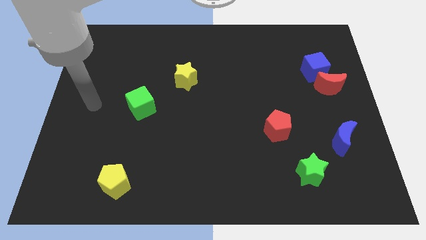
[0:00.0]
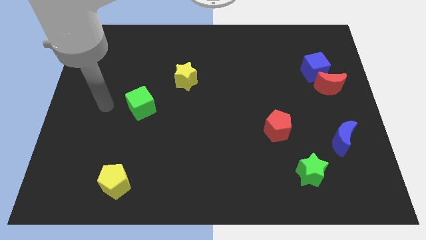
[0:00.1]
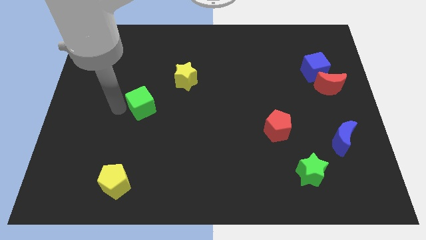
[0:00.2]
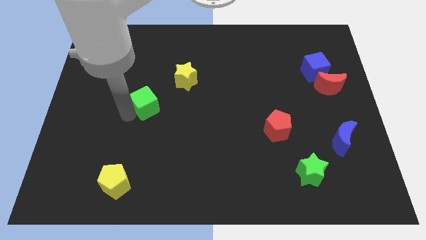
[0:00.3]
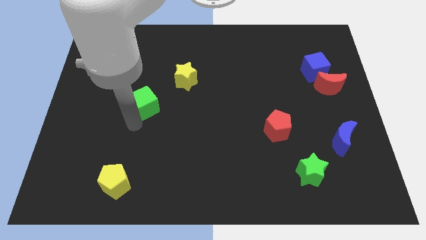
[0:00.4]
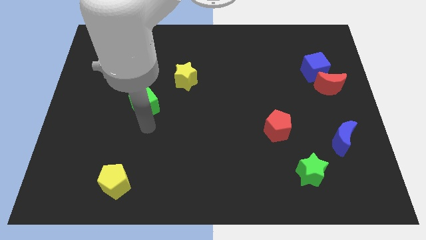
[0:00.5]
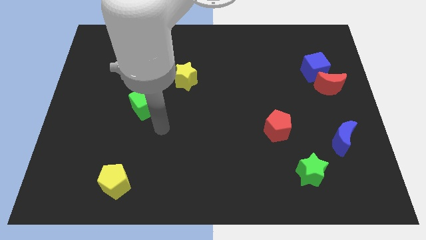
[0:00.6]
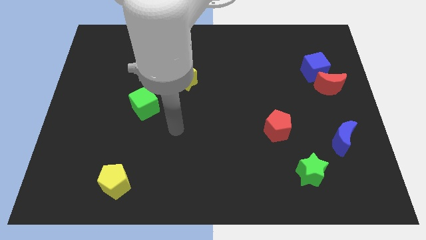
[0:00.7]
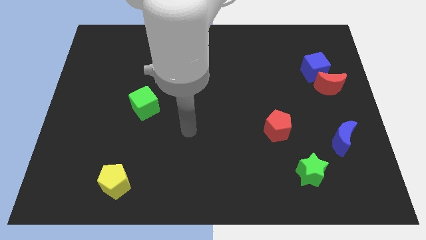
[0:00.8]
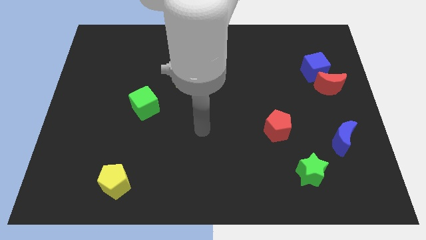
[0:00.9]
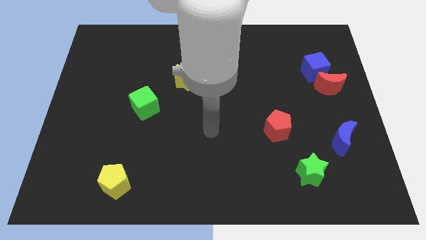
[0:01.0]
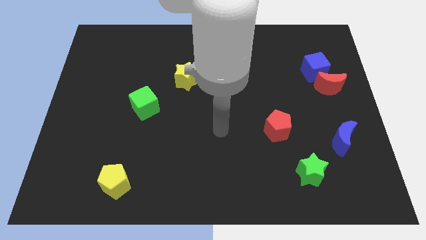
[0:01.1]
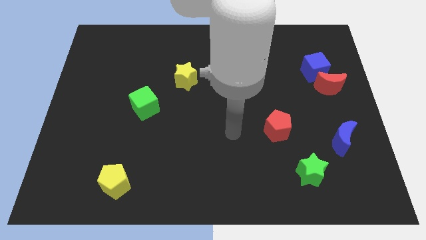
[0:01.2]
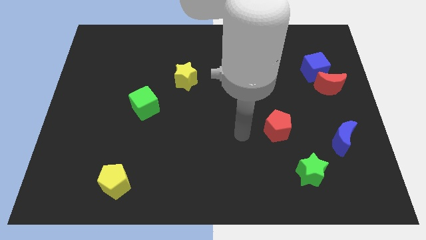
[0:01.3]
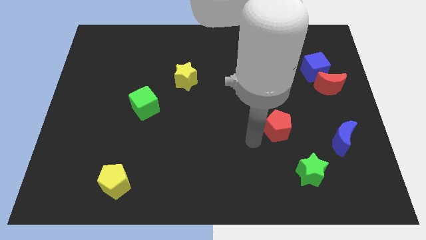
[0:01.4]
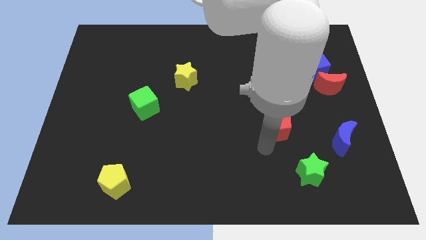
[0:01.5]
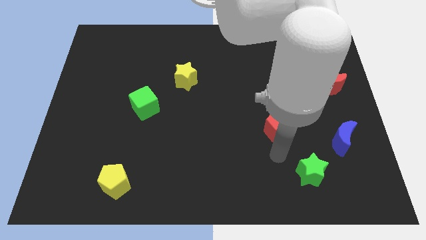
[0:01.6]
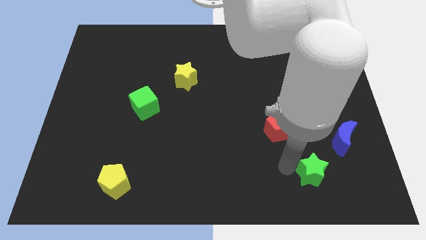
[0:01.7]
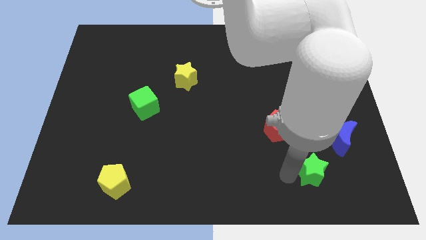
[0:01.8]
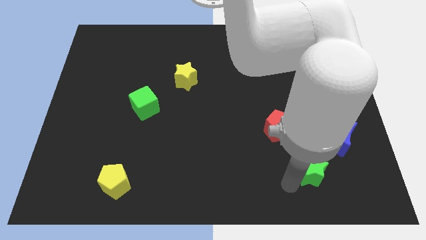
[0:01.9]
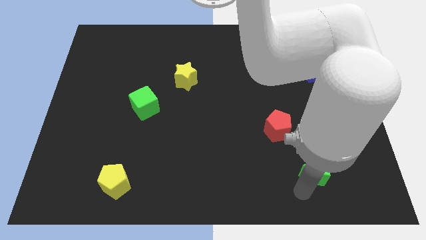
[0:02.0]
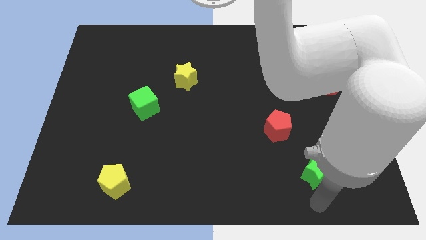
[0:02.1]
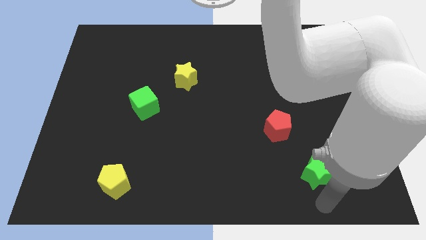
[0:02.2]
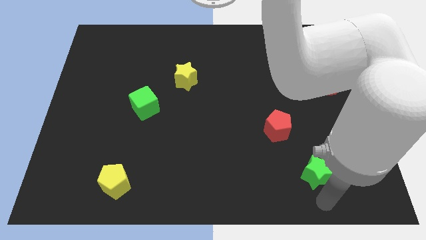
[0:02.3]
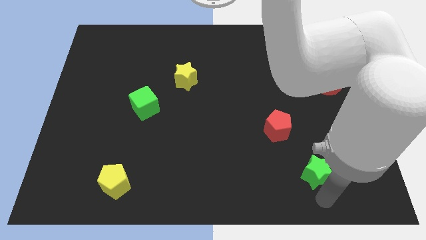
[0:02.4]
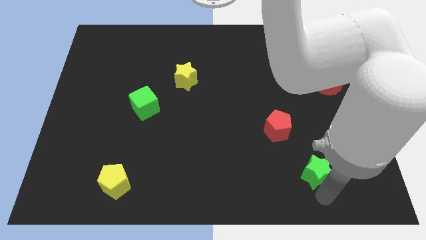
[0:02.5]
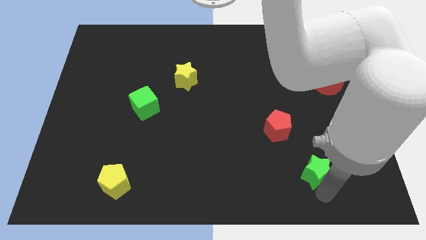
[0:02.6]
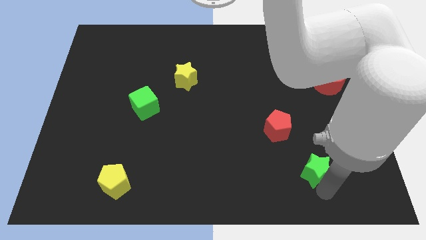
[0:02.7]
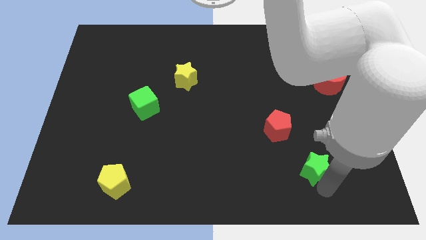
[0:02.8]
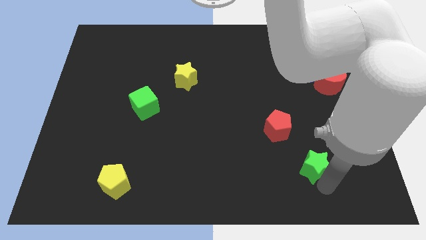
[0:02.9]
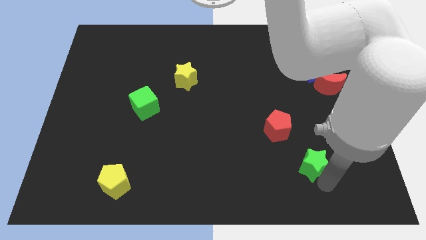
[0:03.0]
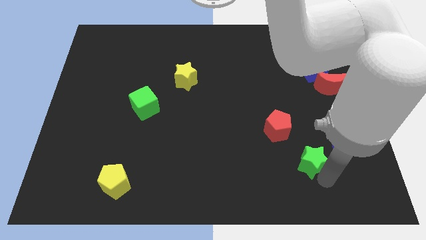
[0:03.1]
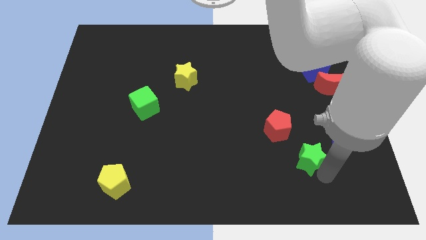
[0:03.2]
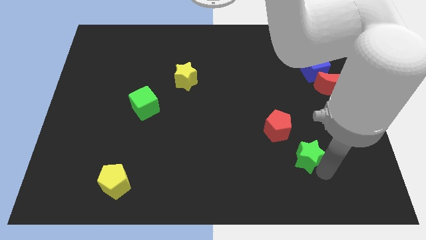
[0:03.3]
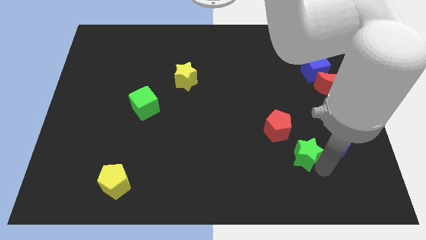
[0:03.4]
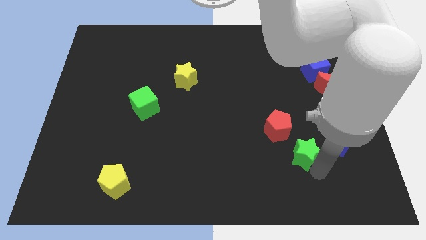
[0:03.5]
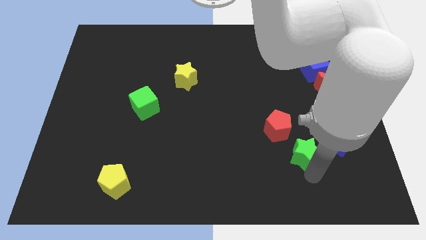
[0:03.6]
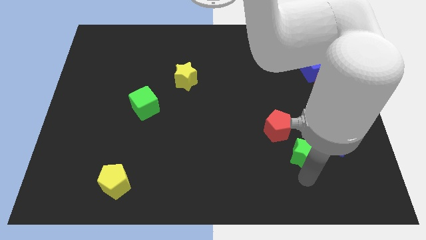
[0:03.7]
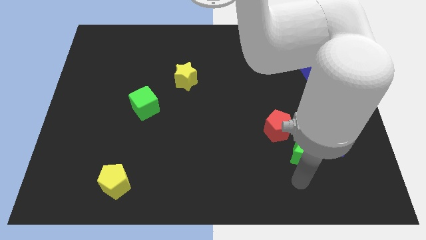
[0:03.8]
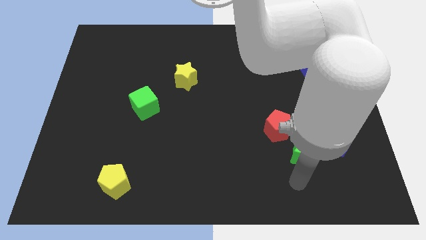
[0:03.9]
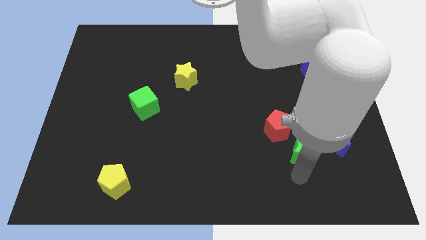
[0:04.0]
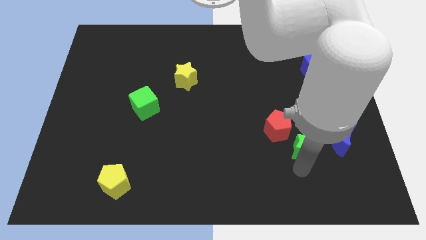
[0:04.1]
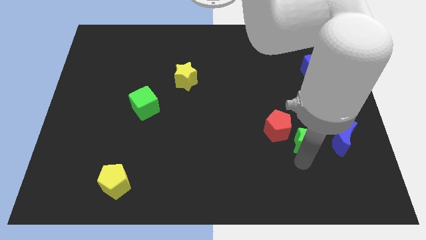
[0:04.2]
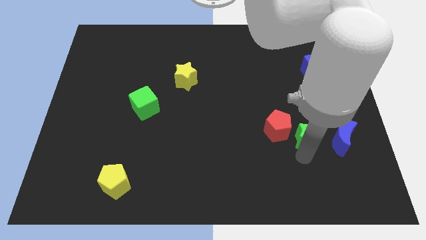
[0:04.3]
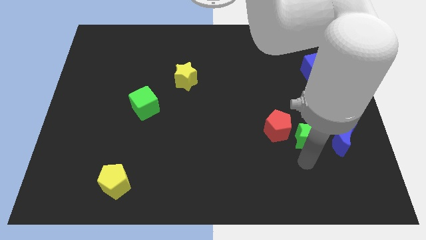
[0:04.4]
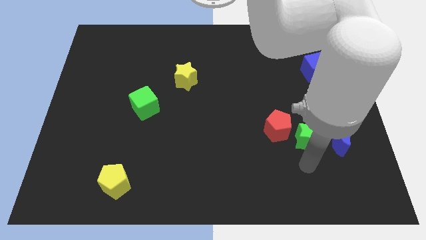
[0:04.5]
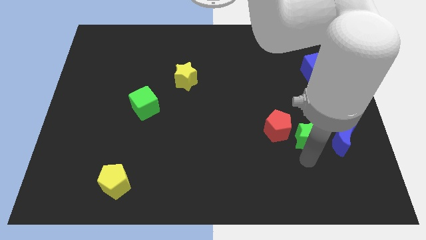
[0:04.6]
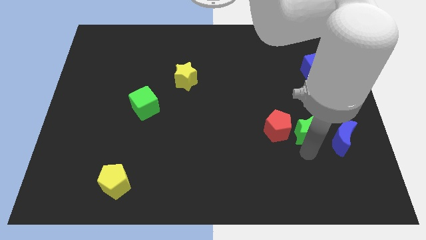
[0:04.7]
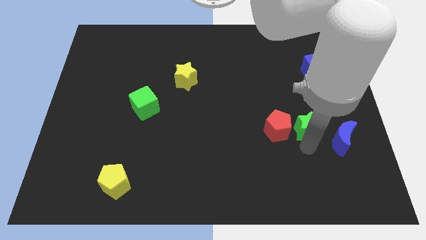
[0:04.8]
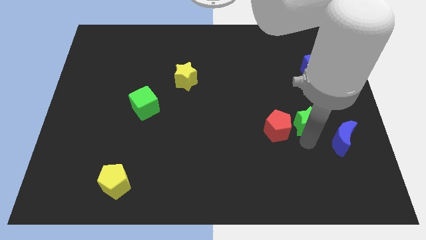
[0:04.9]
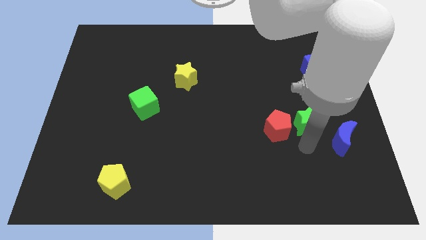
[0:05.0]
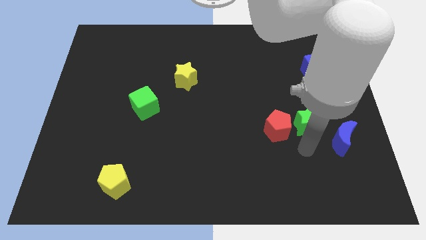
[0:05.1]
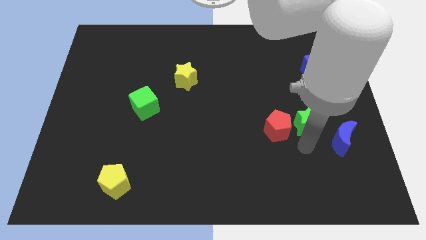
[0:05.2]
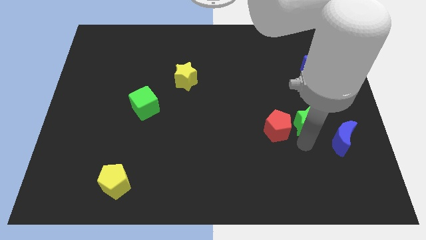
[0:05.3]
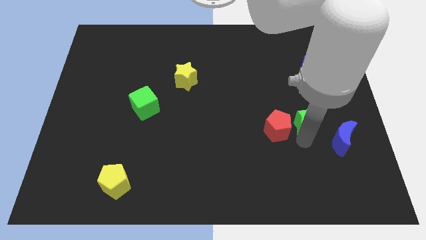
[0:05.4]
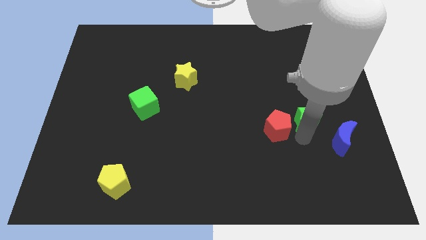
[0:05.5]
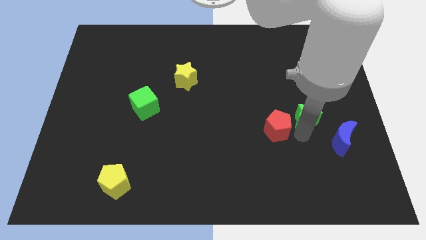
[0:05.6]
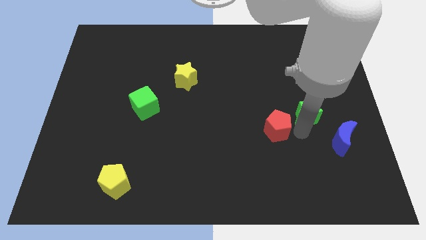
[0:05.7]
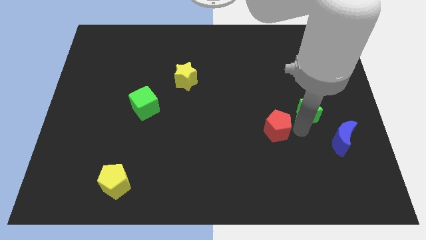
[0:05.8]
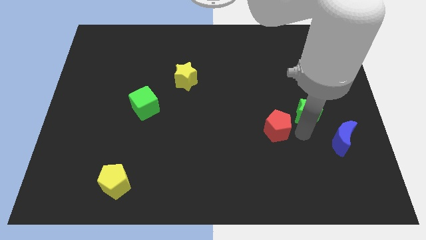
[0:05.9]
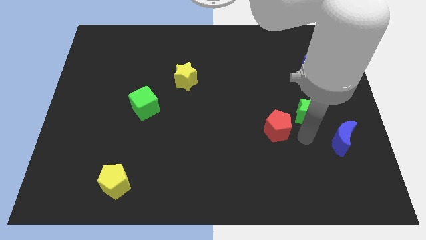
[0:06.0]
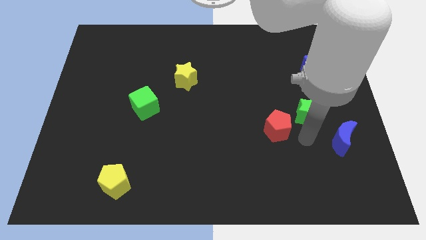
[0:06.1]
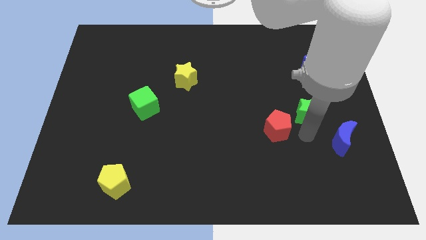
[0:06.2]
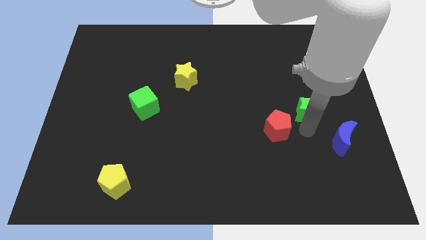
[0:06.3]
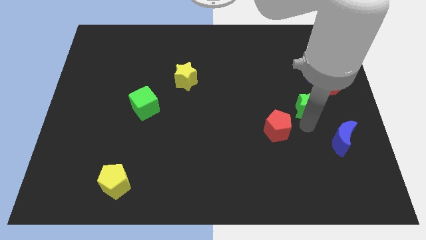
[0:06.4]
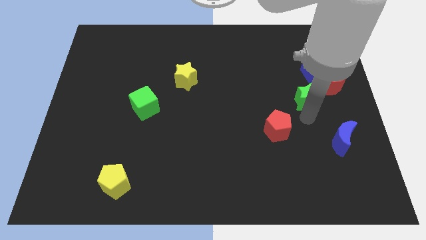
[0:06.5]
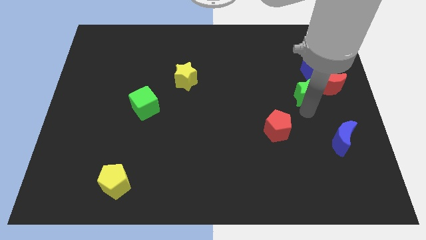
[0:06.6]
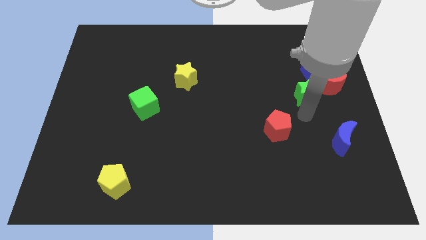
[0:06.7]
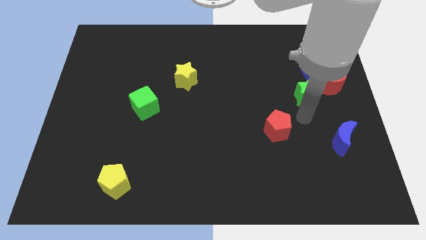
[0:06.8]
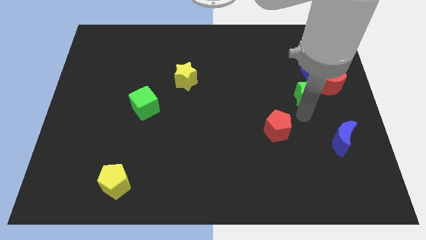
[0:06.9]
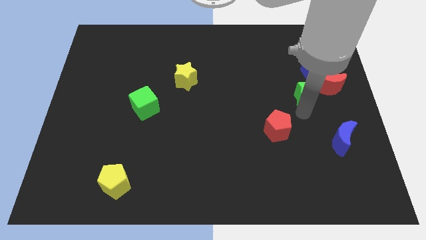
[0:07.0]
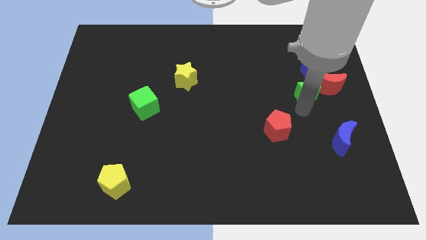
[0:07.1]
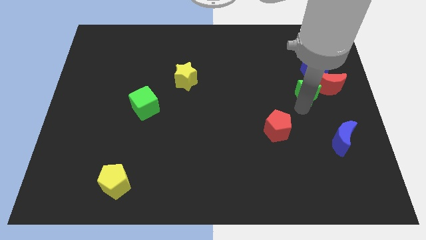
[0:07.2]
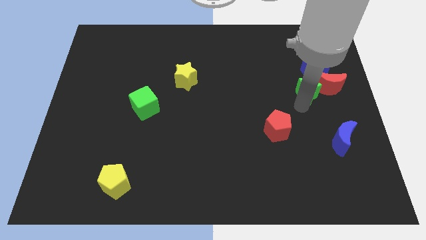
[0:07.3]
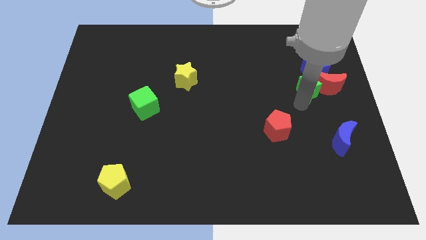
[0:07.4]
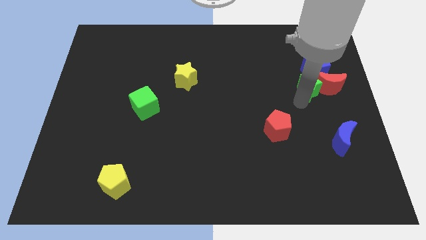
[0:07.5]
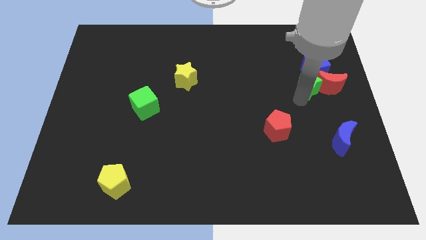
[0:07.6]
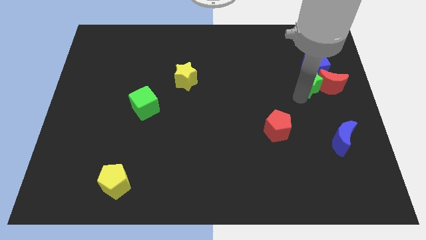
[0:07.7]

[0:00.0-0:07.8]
move the green star next to the blue cube
